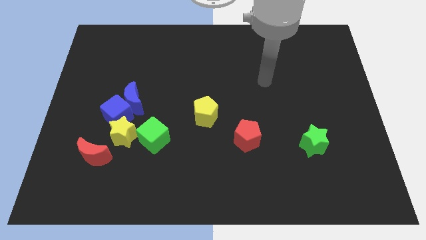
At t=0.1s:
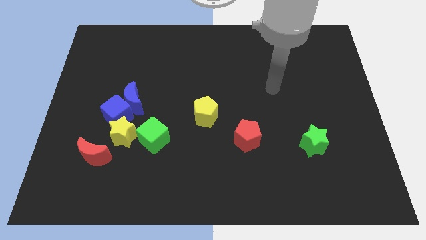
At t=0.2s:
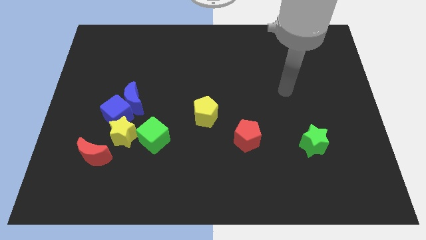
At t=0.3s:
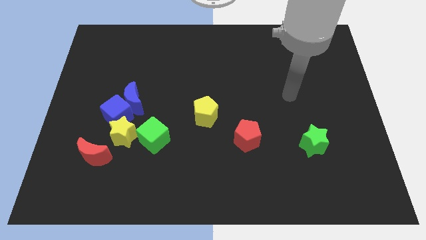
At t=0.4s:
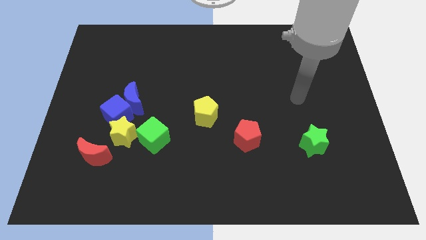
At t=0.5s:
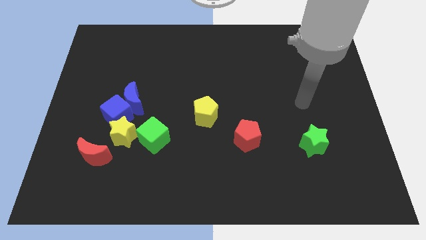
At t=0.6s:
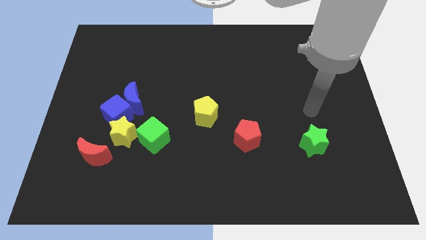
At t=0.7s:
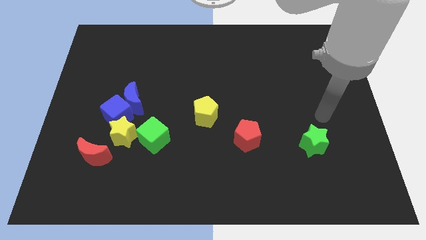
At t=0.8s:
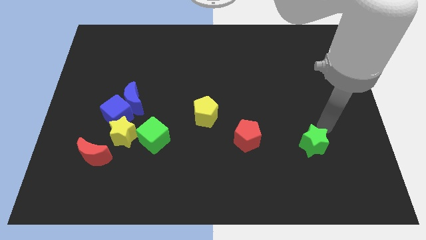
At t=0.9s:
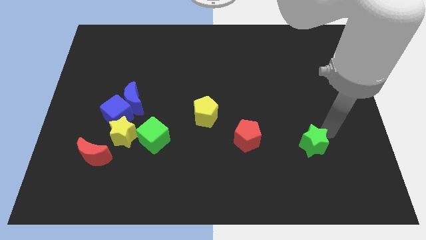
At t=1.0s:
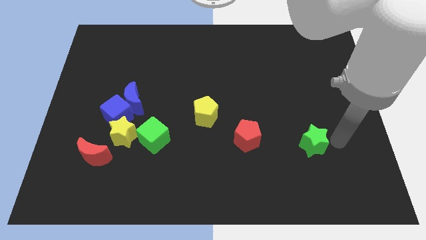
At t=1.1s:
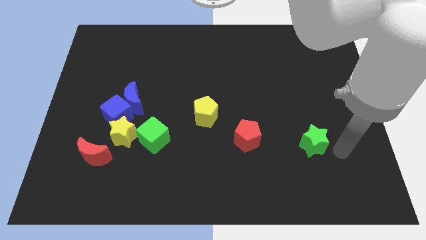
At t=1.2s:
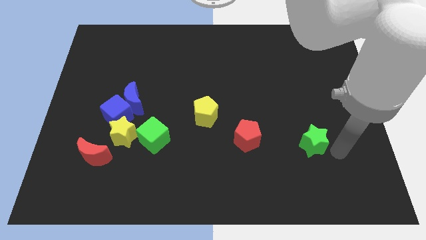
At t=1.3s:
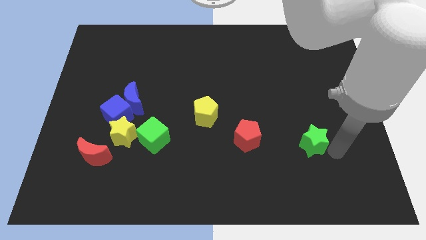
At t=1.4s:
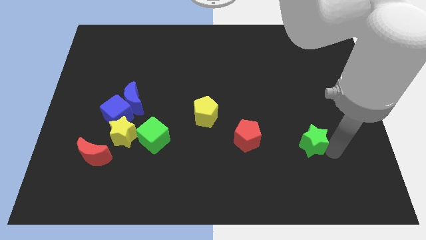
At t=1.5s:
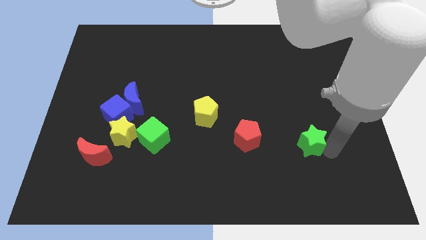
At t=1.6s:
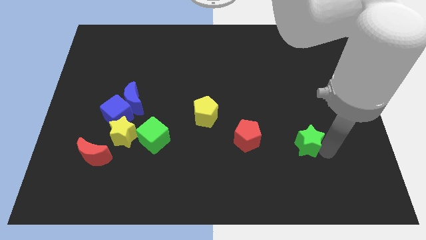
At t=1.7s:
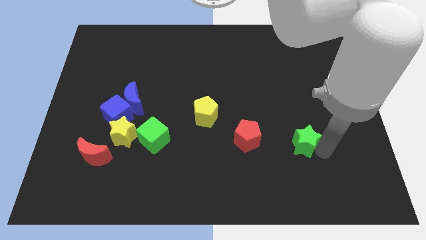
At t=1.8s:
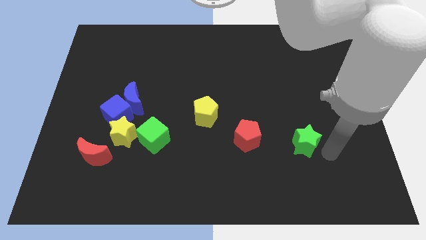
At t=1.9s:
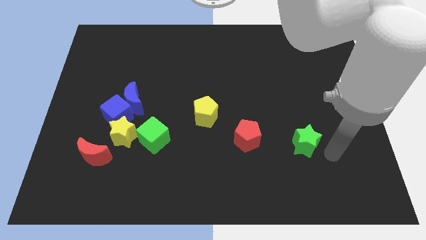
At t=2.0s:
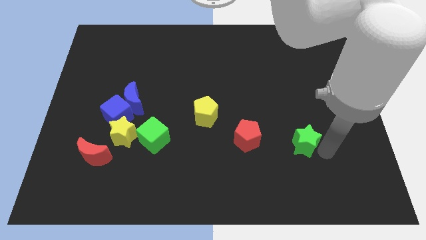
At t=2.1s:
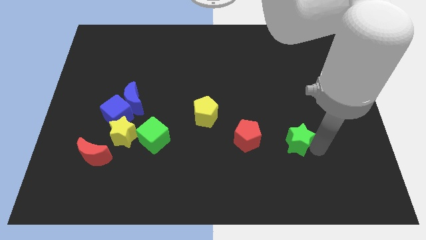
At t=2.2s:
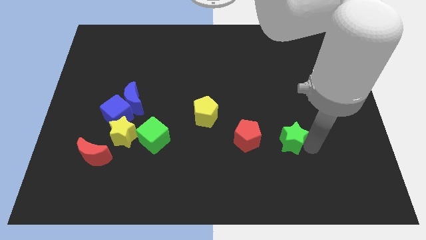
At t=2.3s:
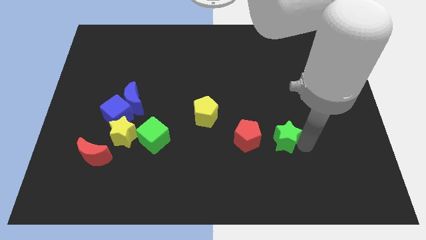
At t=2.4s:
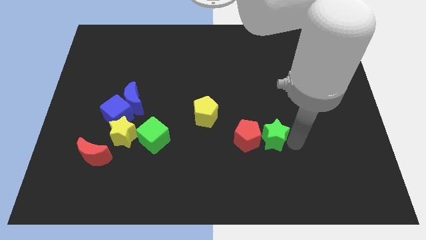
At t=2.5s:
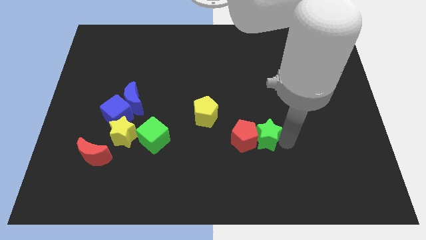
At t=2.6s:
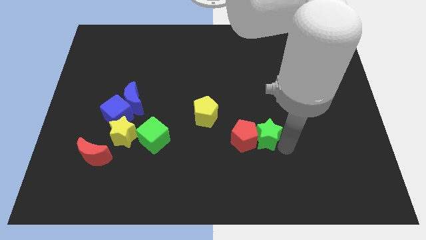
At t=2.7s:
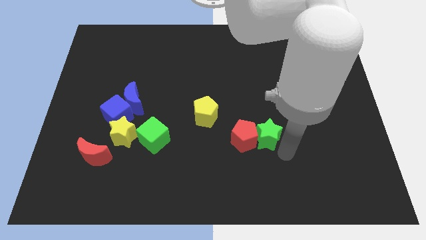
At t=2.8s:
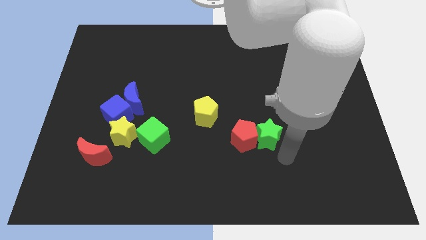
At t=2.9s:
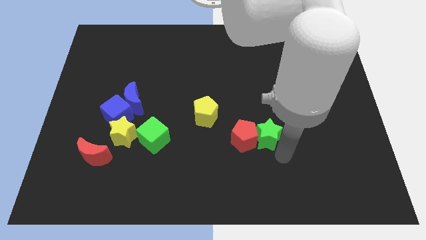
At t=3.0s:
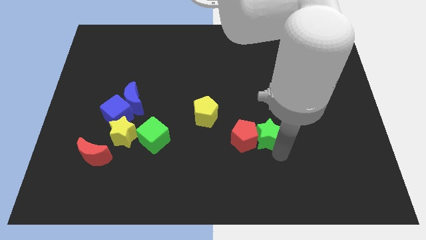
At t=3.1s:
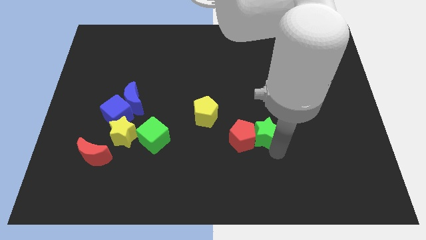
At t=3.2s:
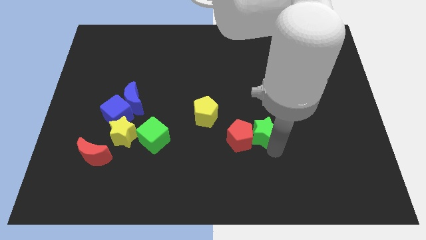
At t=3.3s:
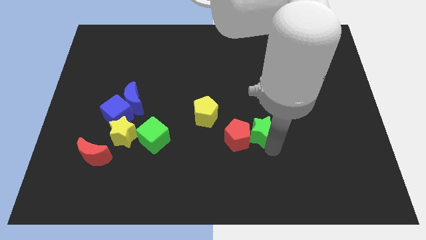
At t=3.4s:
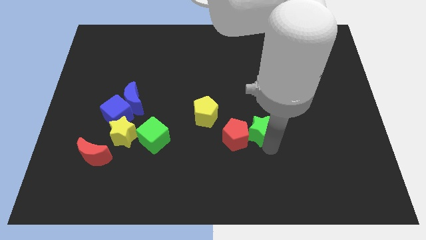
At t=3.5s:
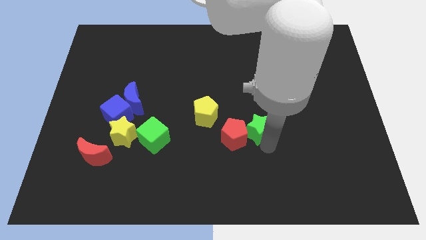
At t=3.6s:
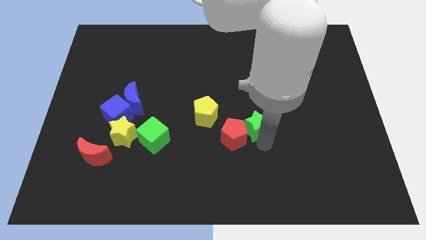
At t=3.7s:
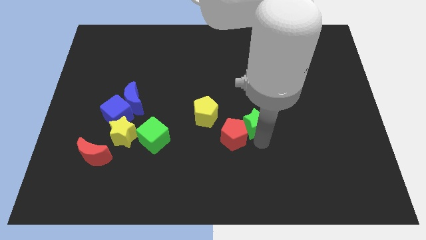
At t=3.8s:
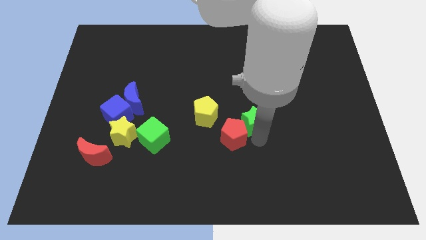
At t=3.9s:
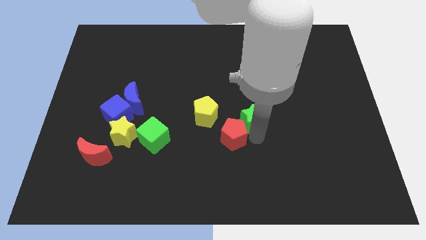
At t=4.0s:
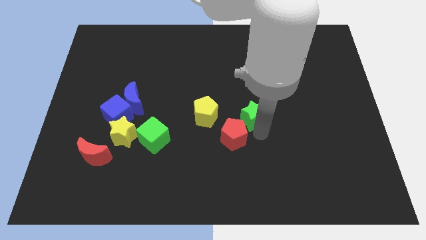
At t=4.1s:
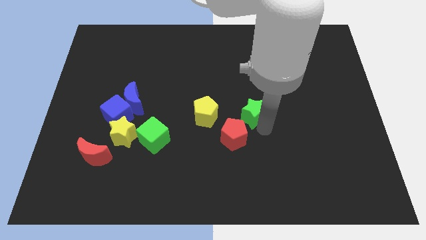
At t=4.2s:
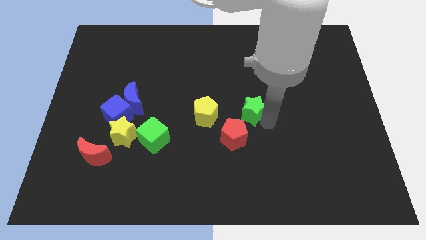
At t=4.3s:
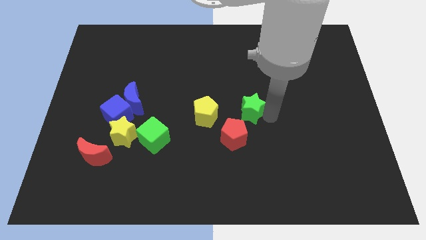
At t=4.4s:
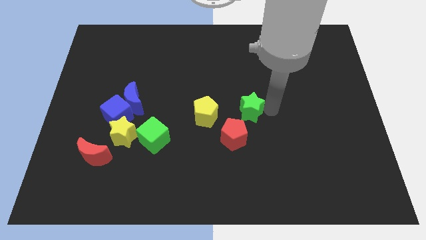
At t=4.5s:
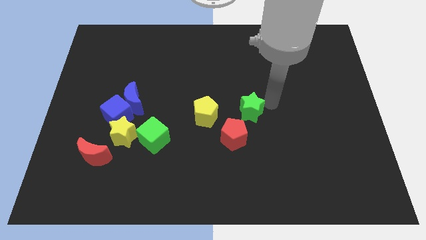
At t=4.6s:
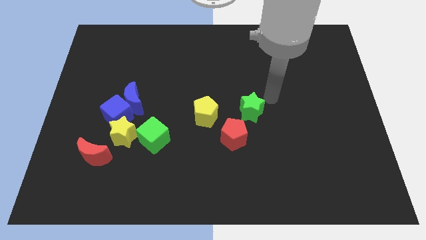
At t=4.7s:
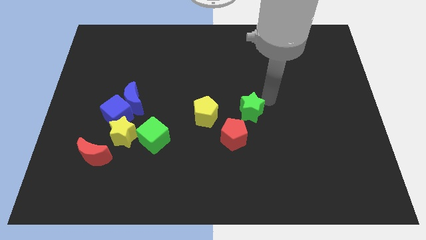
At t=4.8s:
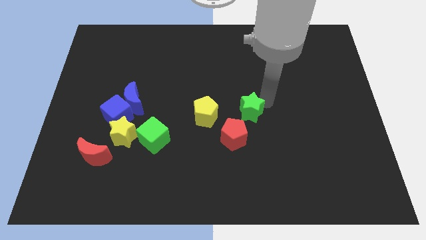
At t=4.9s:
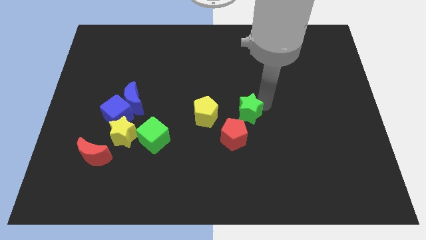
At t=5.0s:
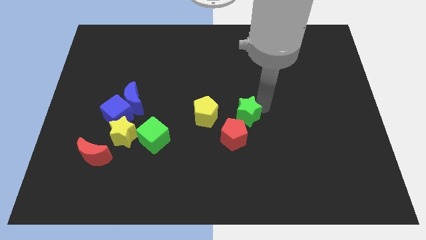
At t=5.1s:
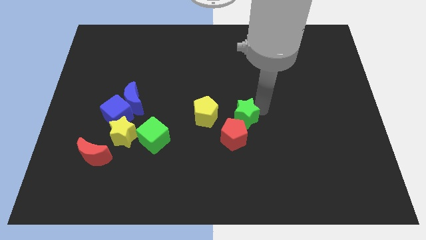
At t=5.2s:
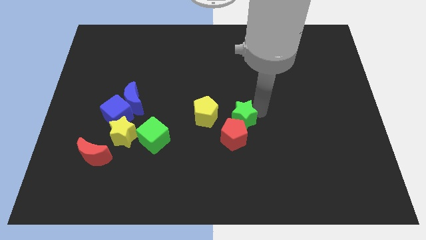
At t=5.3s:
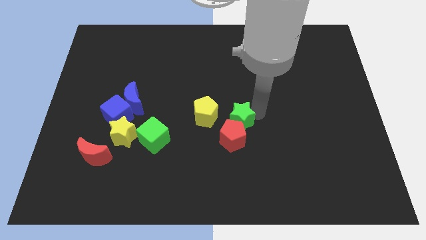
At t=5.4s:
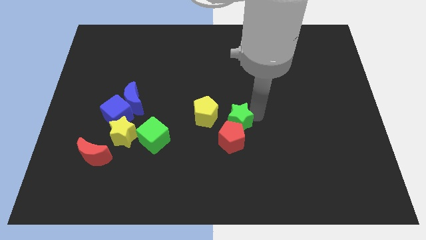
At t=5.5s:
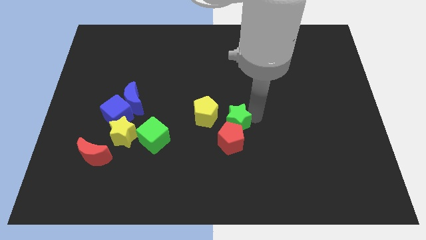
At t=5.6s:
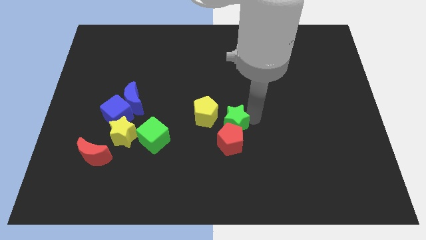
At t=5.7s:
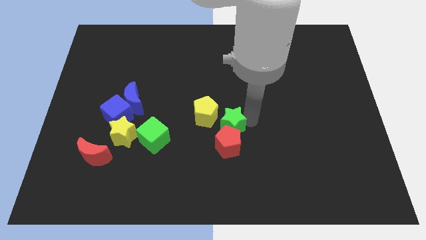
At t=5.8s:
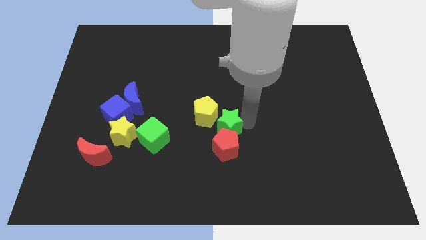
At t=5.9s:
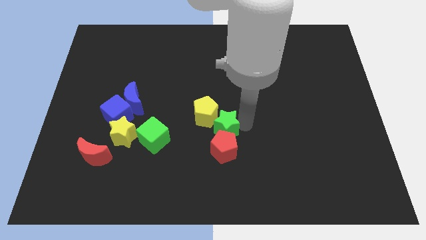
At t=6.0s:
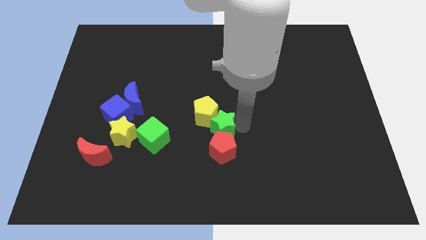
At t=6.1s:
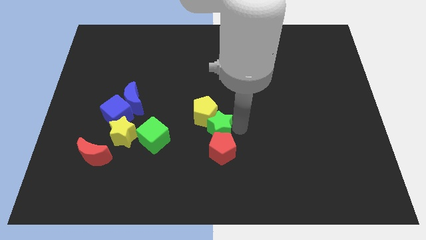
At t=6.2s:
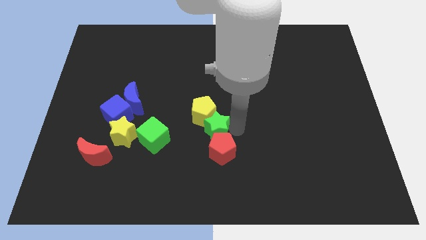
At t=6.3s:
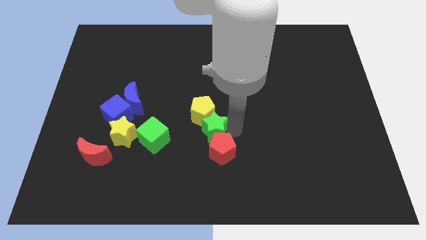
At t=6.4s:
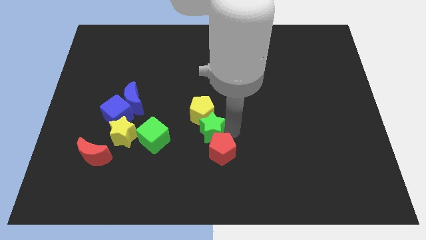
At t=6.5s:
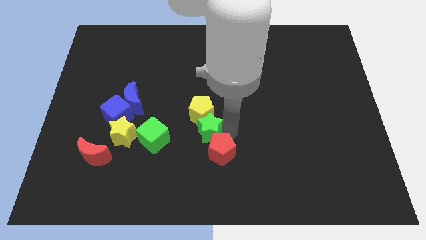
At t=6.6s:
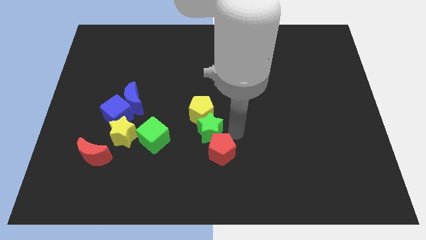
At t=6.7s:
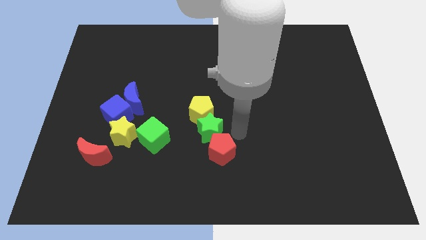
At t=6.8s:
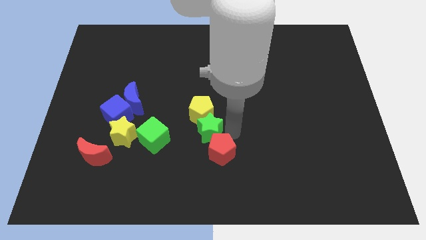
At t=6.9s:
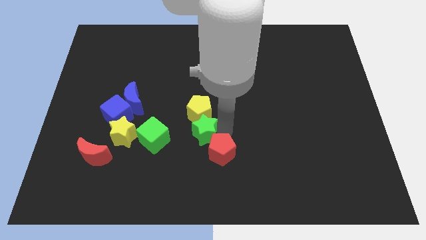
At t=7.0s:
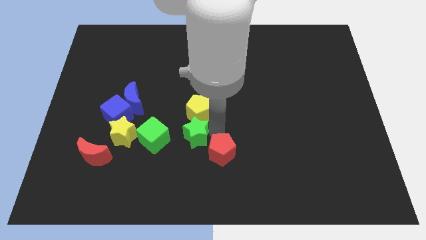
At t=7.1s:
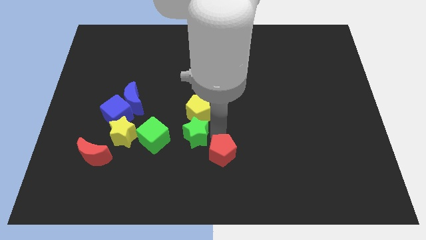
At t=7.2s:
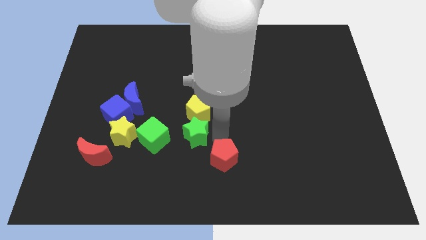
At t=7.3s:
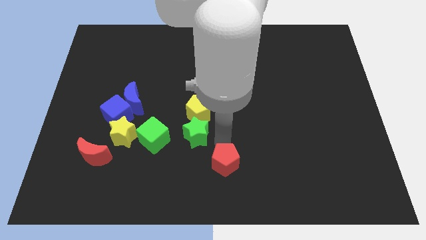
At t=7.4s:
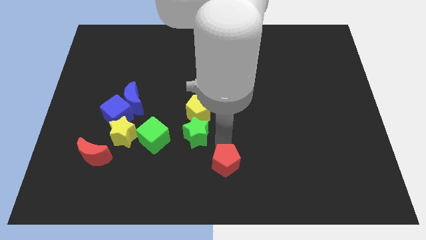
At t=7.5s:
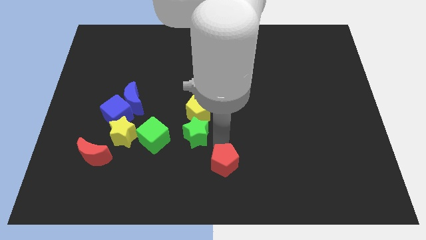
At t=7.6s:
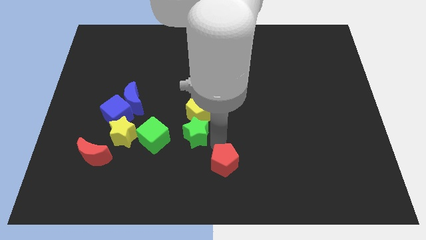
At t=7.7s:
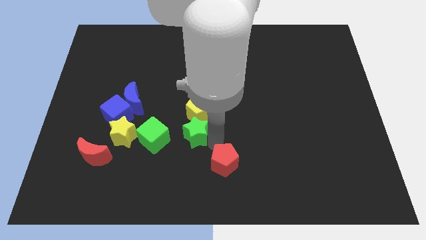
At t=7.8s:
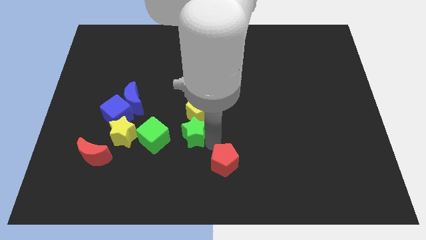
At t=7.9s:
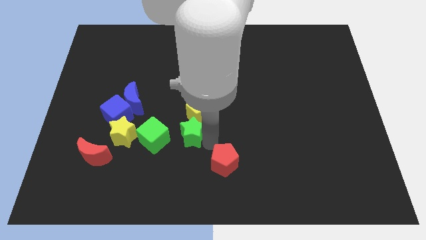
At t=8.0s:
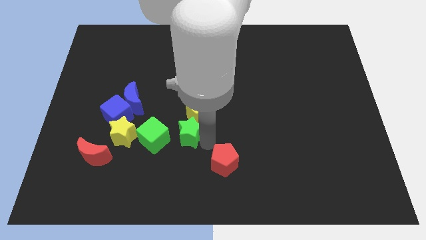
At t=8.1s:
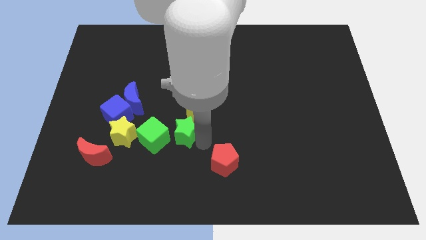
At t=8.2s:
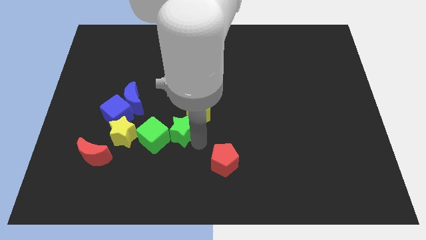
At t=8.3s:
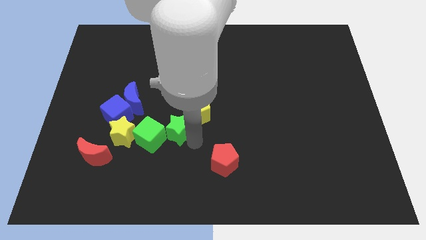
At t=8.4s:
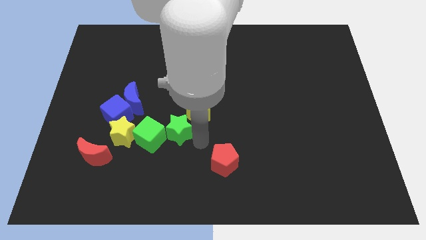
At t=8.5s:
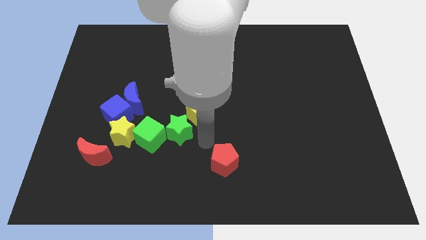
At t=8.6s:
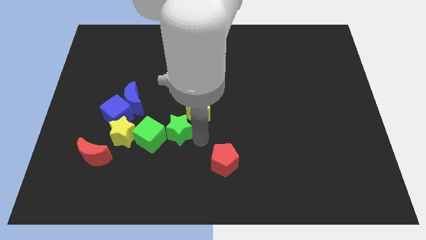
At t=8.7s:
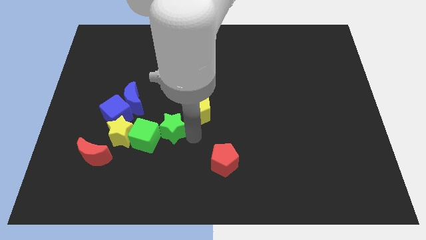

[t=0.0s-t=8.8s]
push the green star to the bottom right of the blue moon

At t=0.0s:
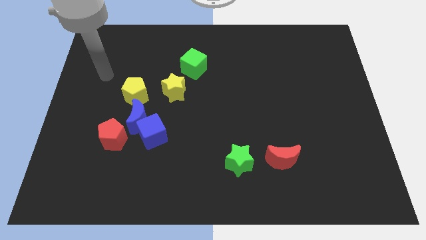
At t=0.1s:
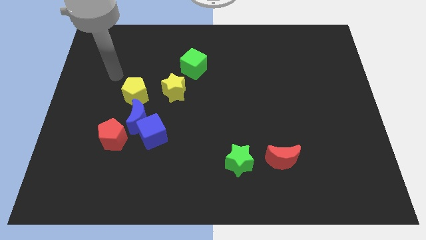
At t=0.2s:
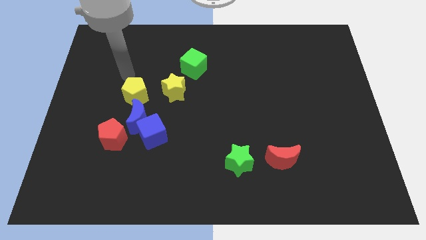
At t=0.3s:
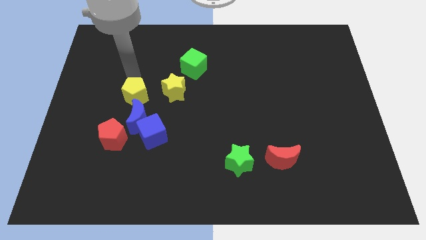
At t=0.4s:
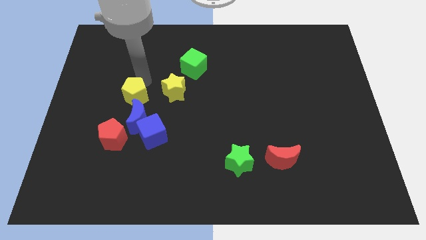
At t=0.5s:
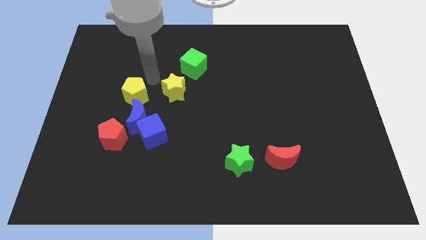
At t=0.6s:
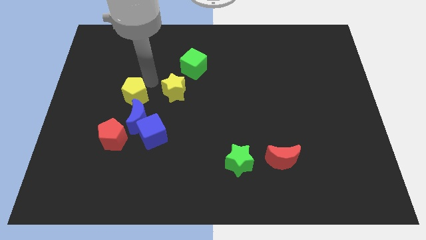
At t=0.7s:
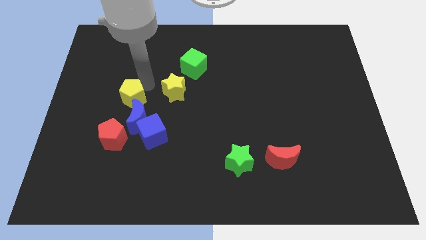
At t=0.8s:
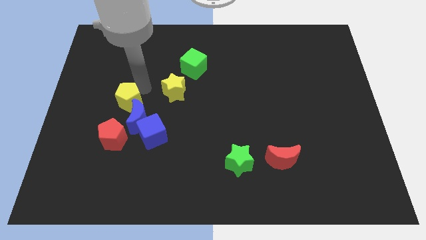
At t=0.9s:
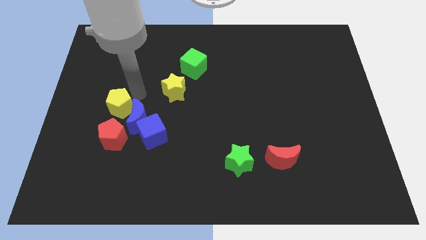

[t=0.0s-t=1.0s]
push the yellow pentagon to the left of the blue moon
